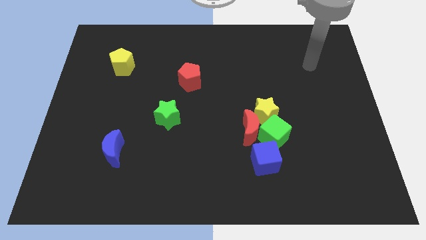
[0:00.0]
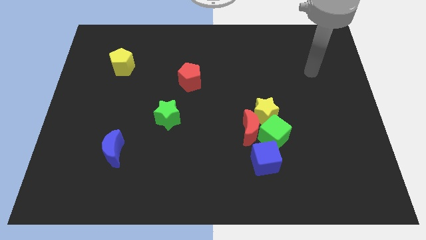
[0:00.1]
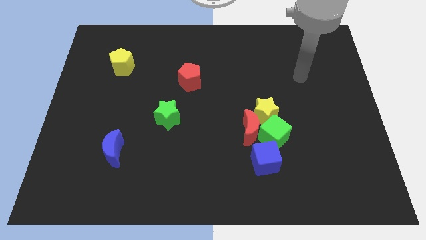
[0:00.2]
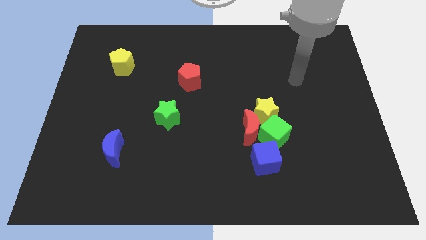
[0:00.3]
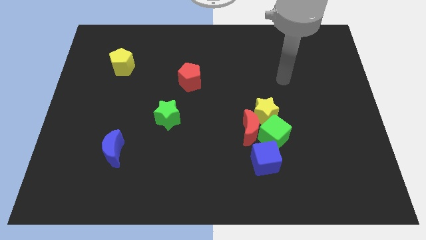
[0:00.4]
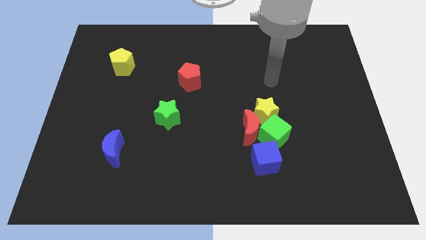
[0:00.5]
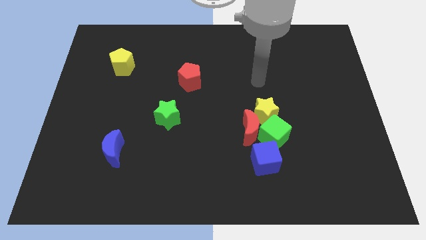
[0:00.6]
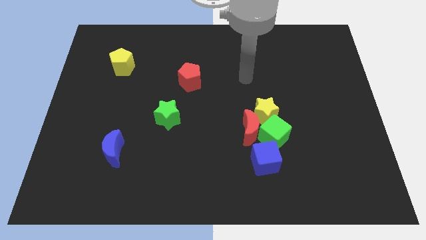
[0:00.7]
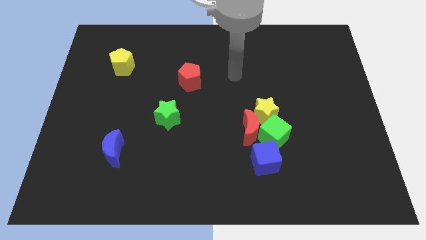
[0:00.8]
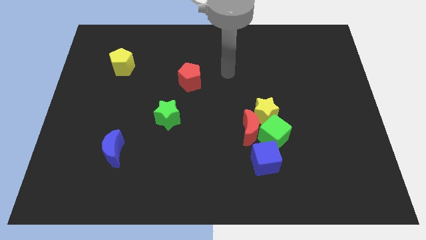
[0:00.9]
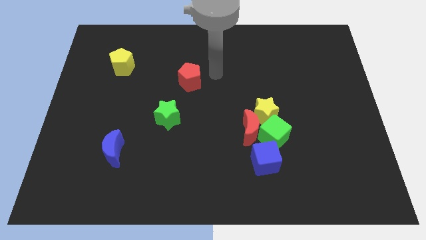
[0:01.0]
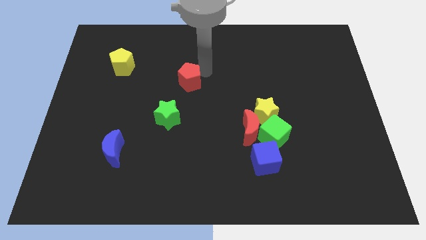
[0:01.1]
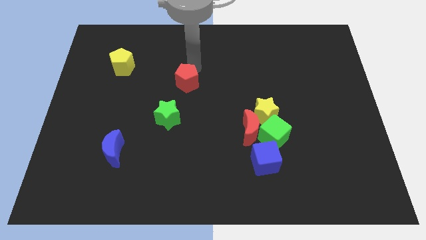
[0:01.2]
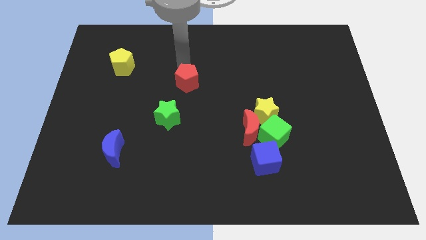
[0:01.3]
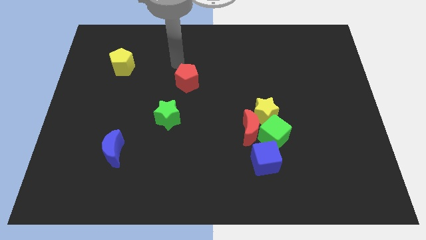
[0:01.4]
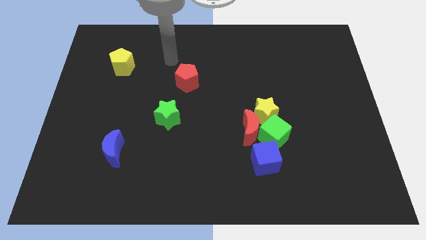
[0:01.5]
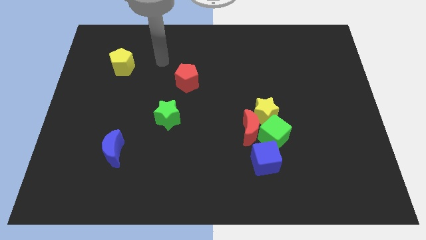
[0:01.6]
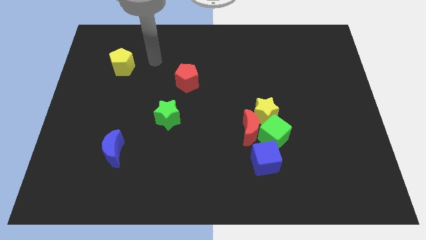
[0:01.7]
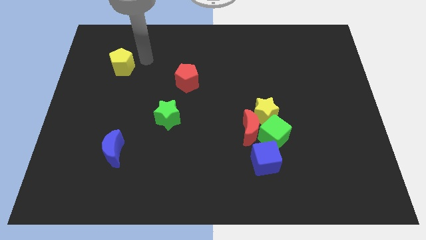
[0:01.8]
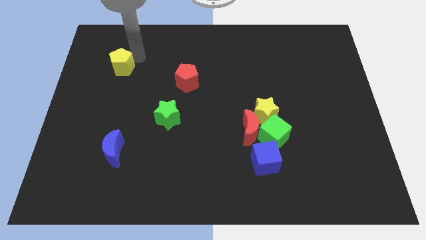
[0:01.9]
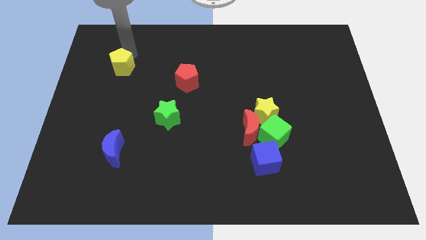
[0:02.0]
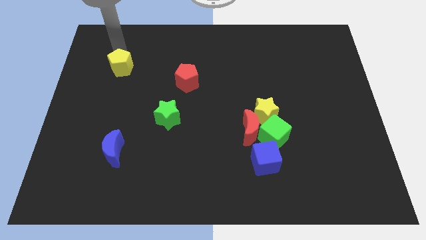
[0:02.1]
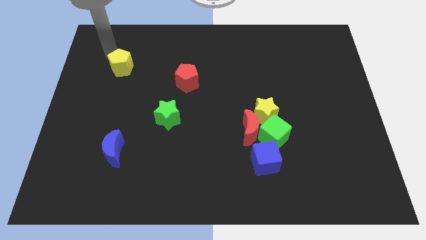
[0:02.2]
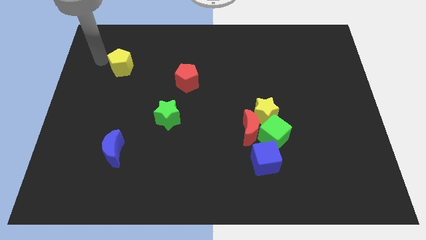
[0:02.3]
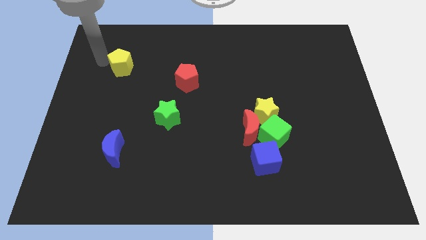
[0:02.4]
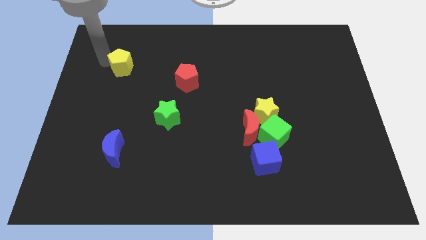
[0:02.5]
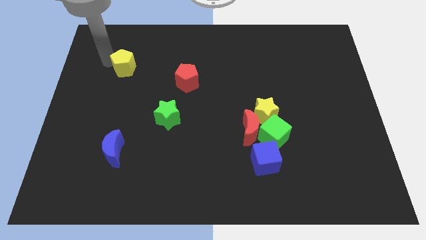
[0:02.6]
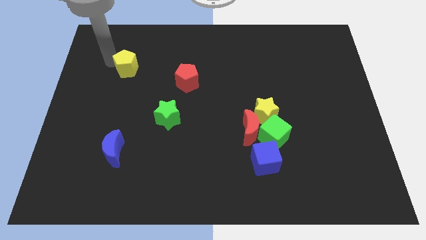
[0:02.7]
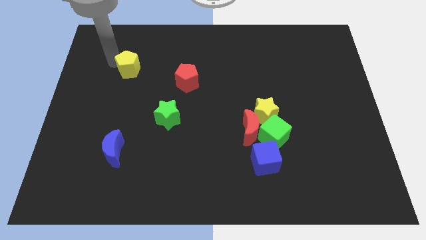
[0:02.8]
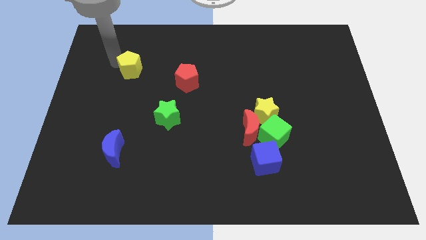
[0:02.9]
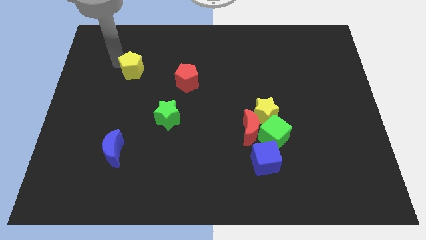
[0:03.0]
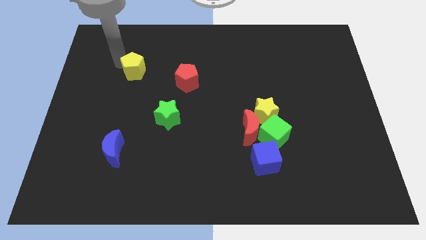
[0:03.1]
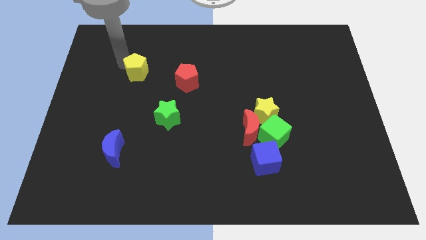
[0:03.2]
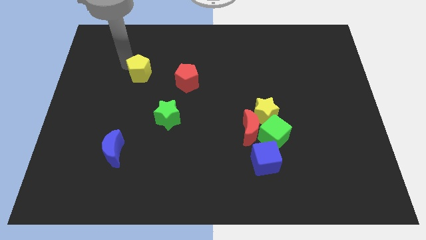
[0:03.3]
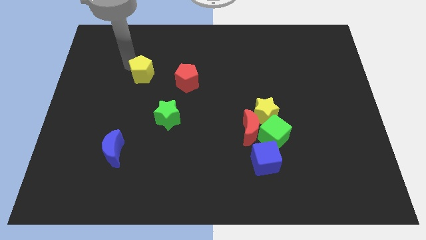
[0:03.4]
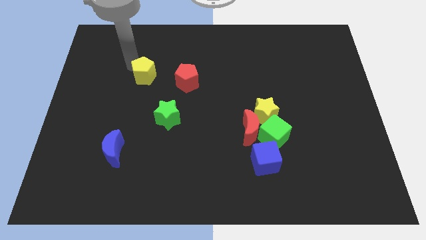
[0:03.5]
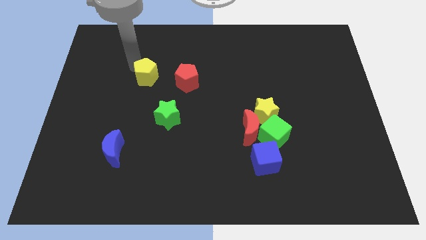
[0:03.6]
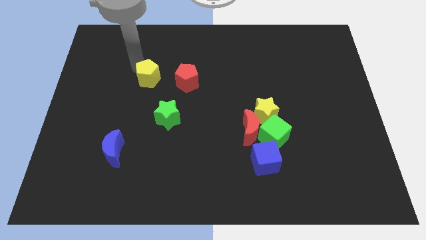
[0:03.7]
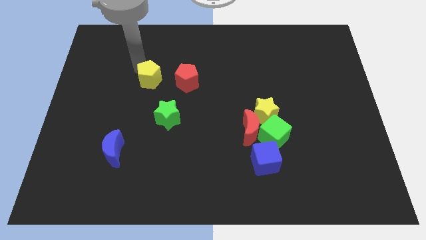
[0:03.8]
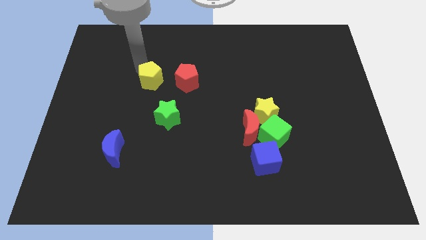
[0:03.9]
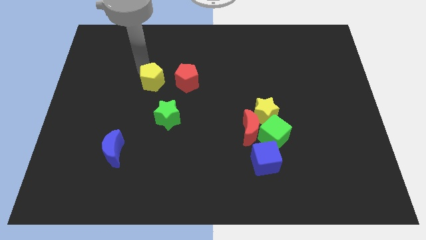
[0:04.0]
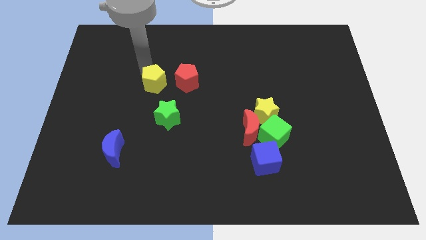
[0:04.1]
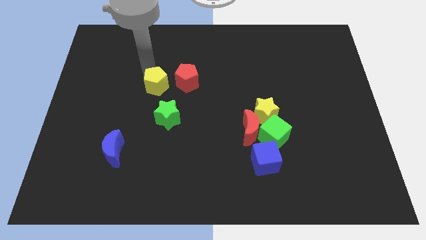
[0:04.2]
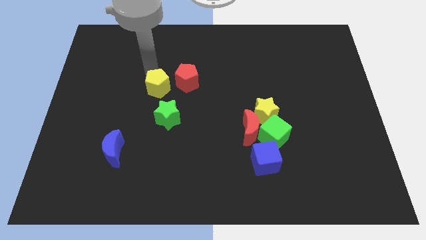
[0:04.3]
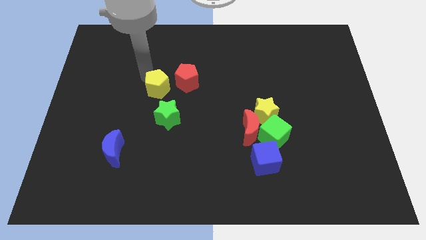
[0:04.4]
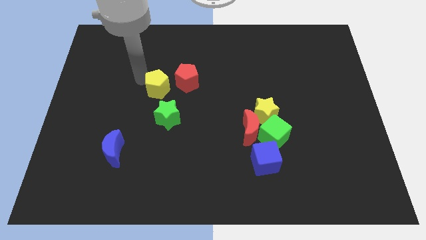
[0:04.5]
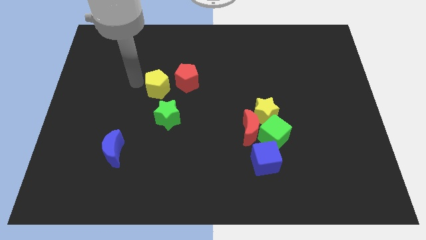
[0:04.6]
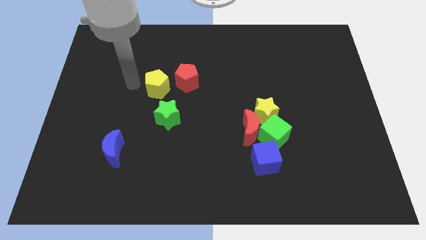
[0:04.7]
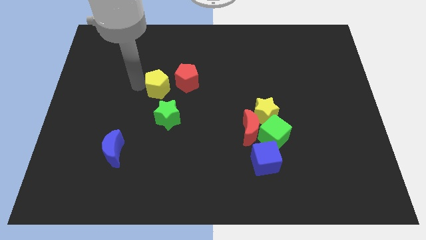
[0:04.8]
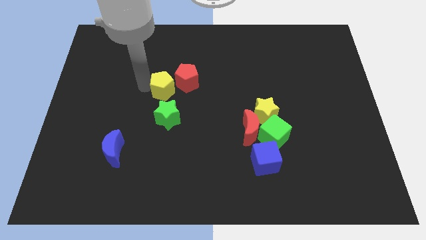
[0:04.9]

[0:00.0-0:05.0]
move the yellow pentagon to the center of the board
